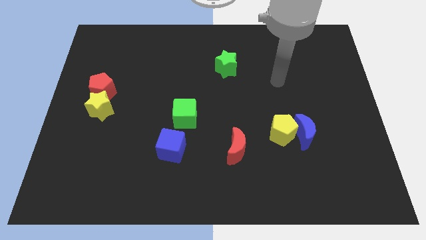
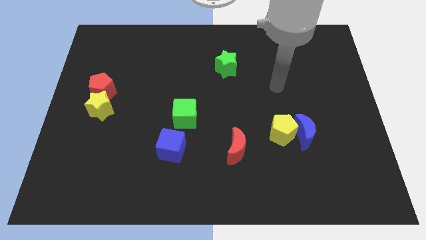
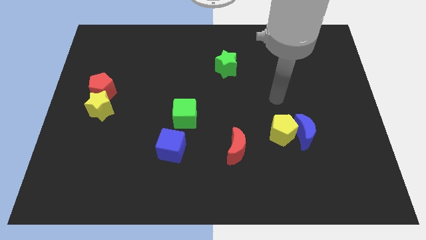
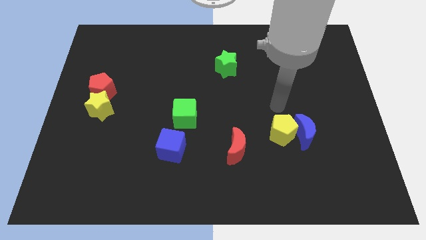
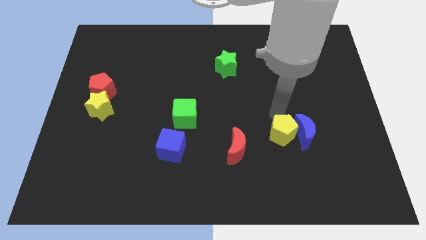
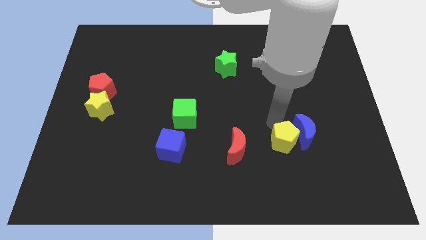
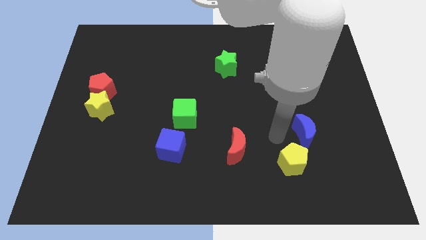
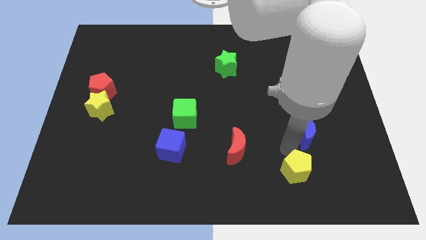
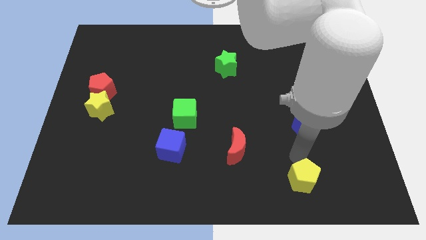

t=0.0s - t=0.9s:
move the blue moon away from the yellow pentagon

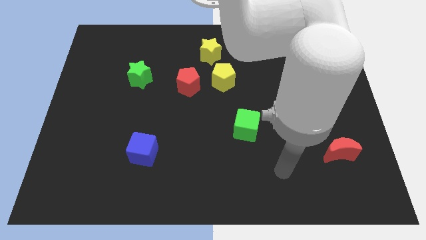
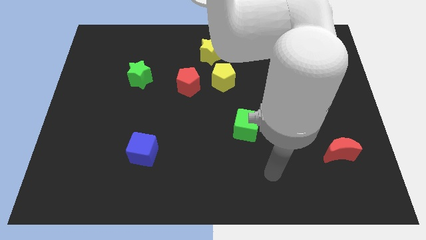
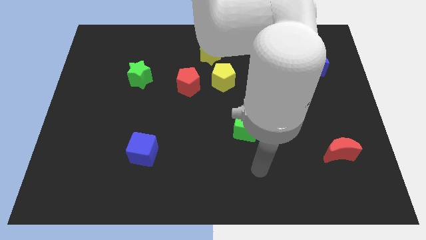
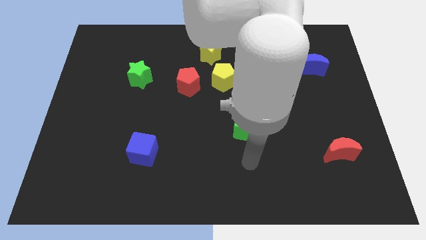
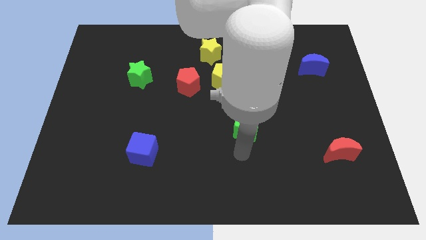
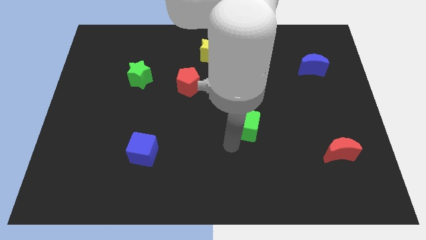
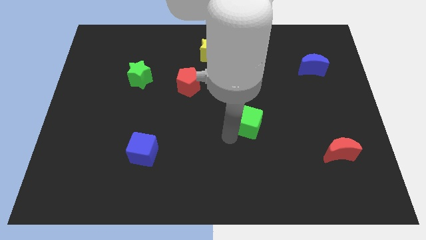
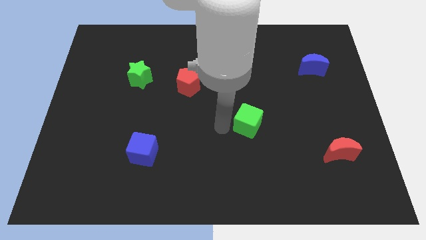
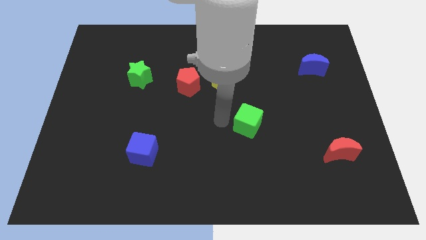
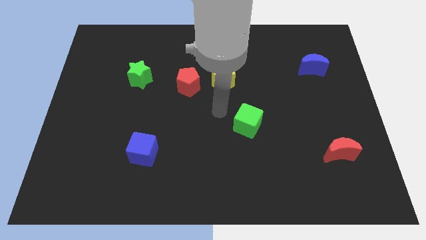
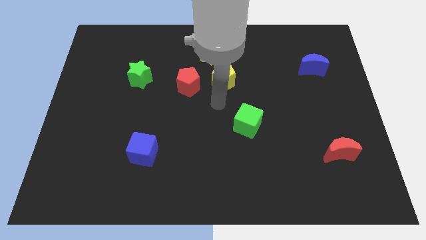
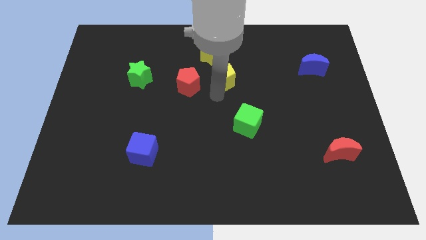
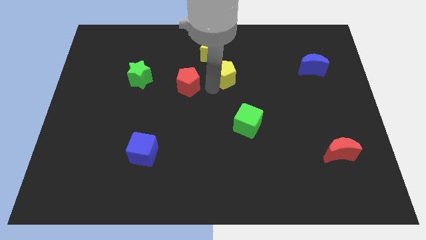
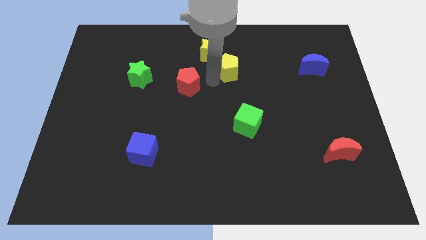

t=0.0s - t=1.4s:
separate the red pentagon from the yellow pentagon

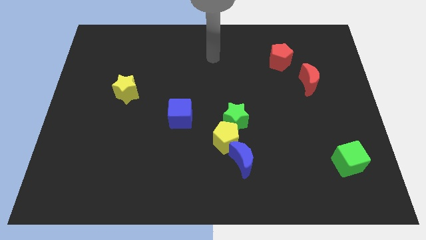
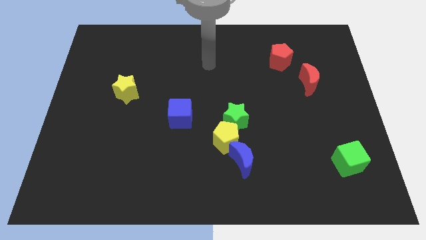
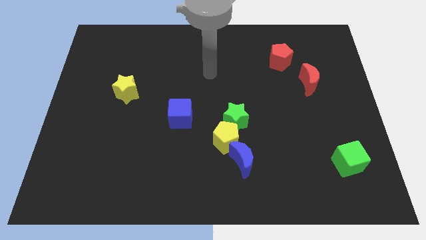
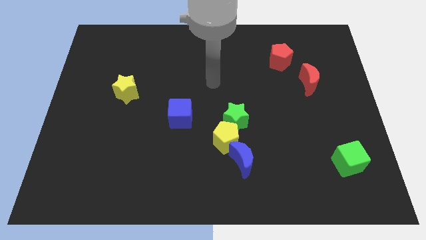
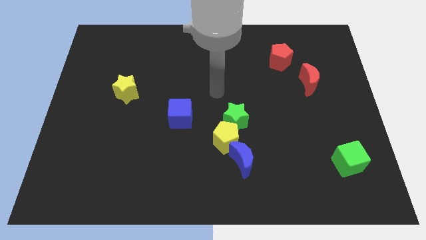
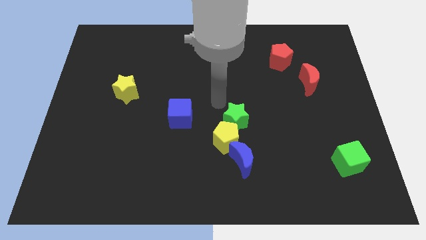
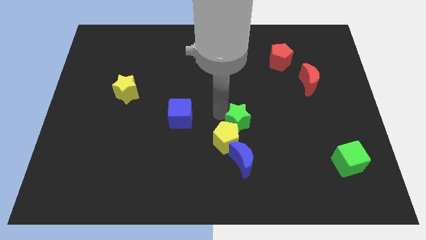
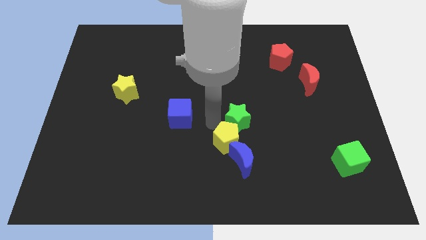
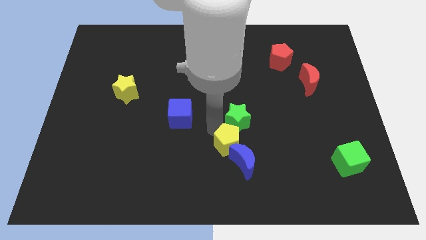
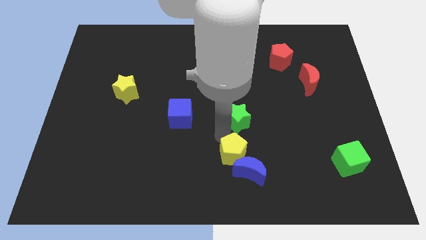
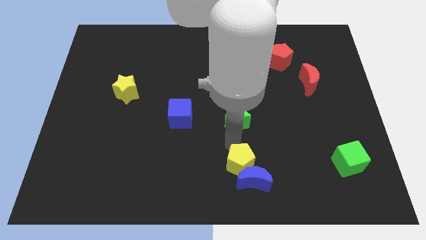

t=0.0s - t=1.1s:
move the green star away from the yellow pentagon

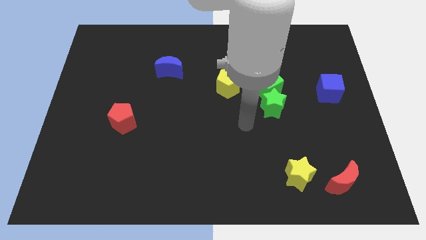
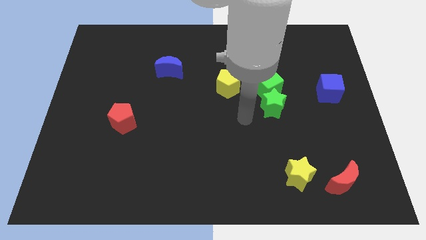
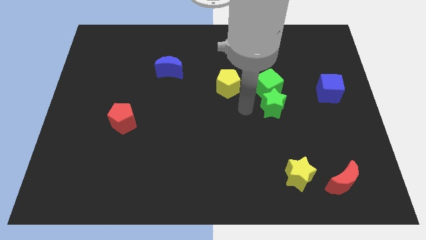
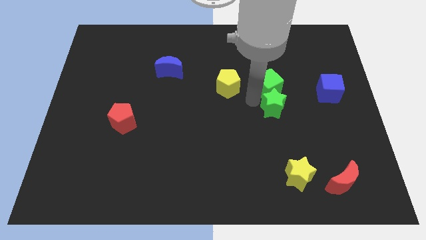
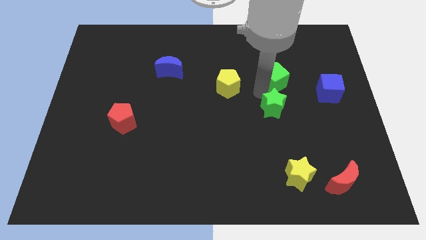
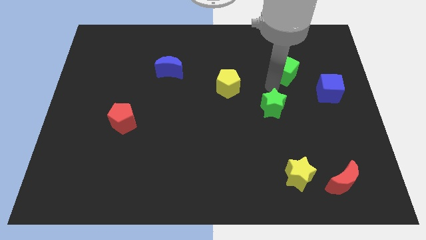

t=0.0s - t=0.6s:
pull the green star apart from the green cube

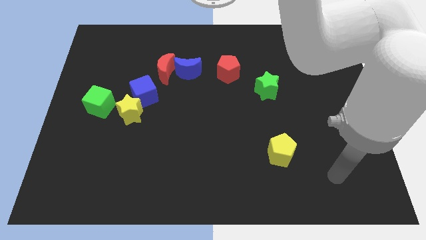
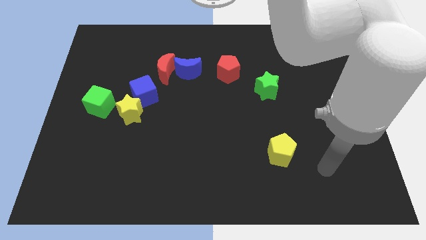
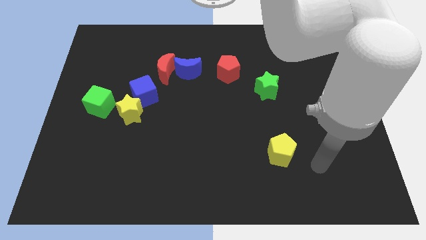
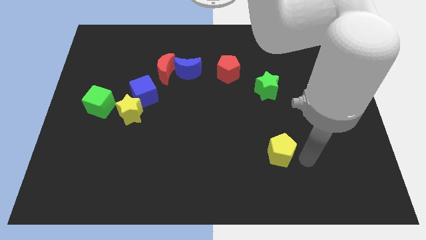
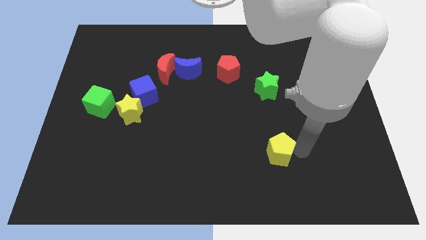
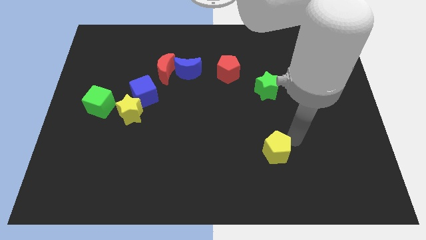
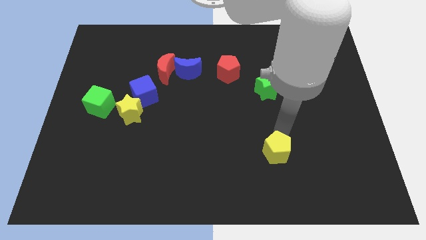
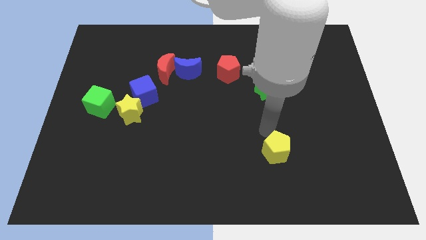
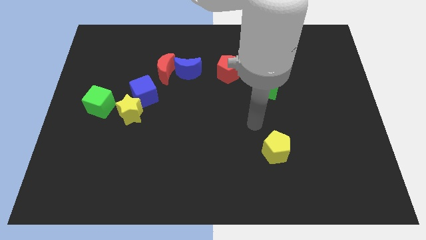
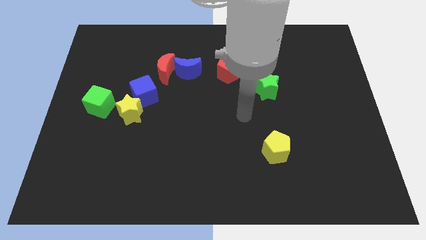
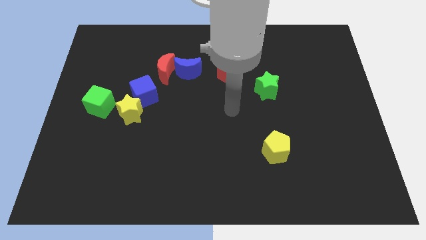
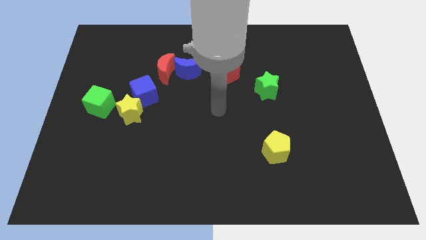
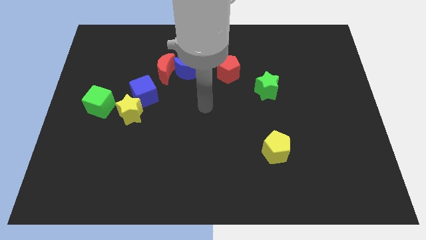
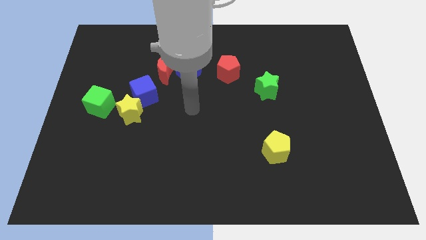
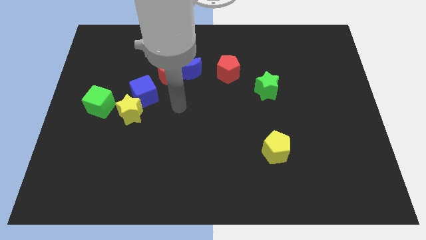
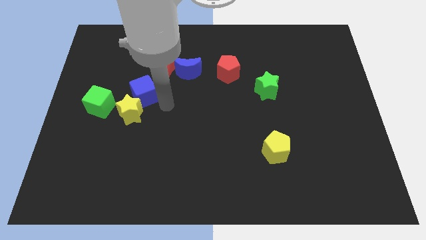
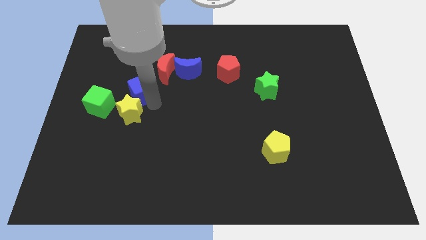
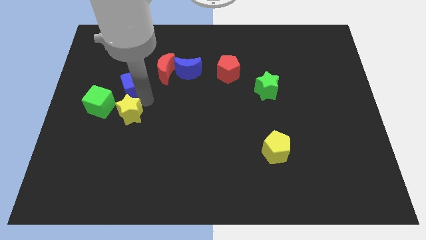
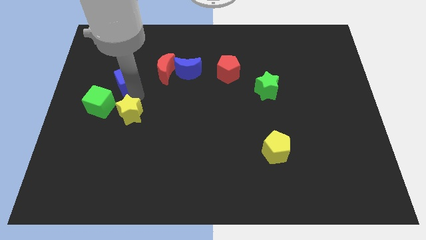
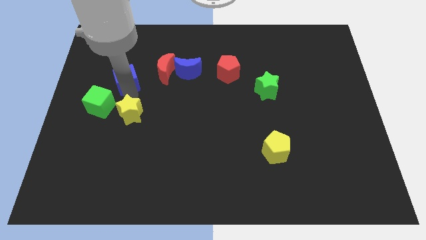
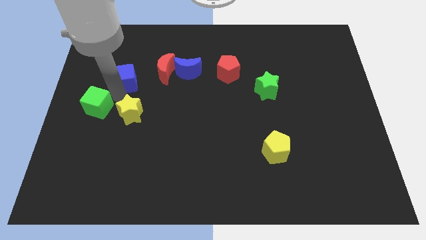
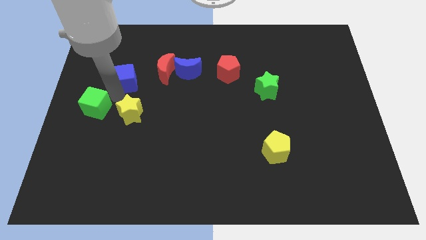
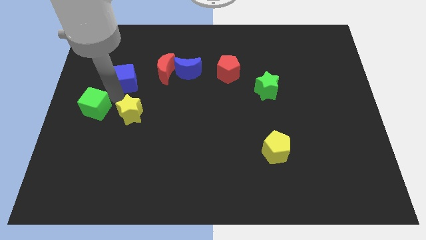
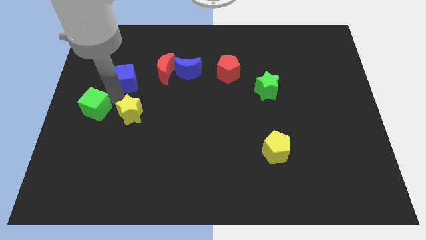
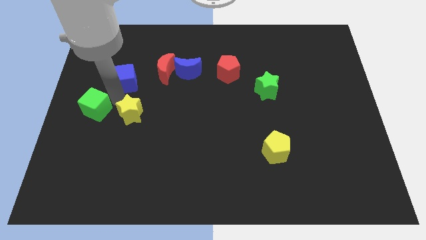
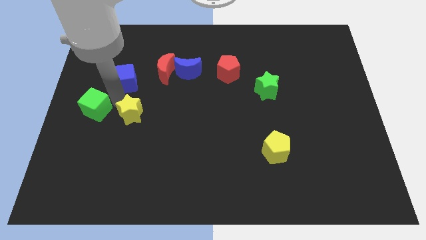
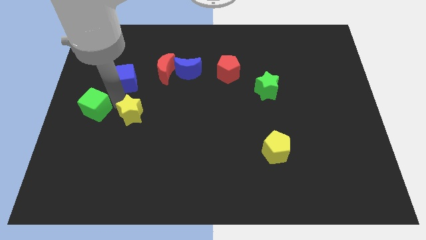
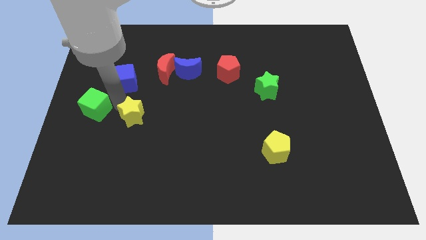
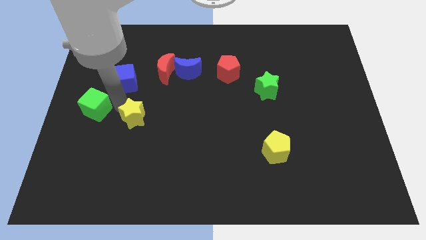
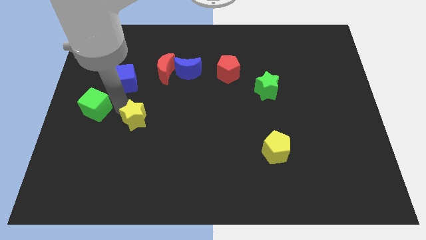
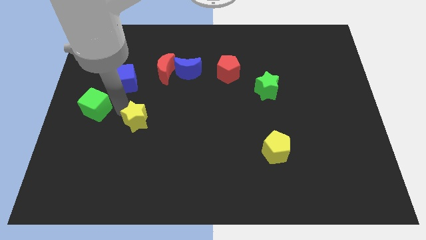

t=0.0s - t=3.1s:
pull the yellow star apart from the blue cube and green cube

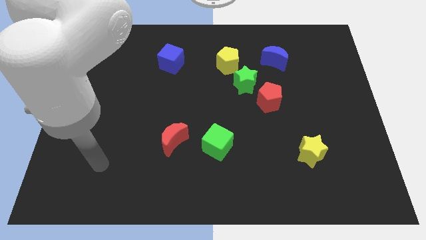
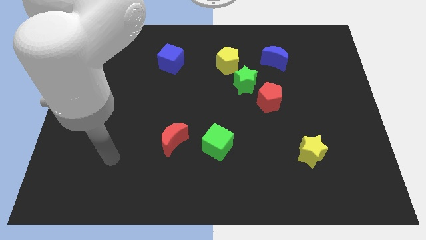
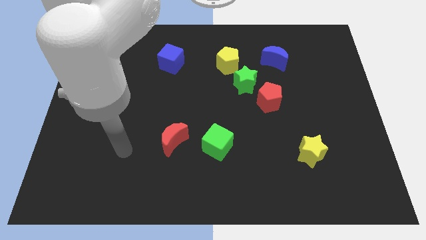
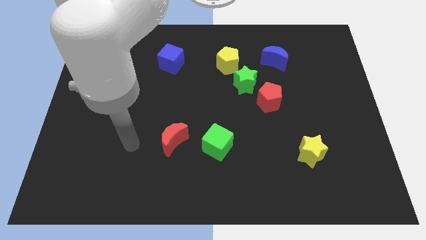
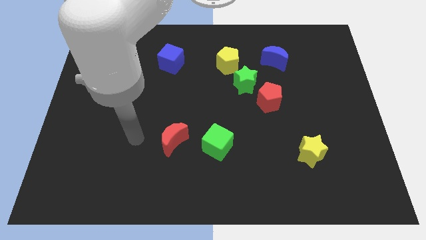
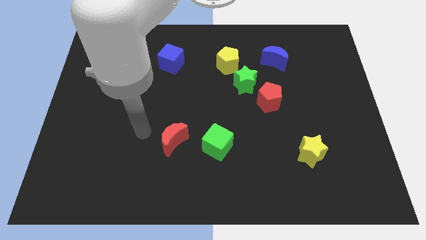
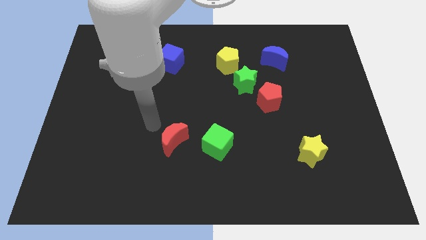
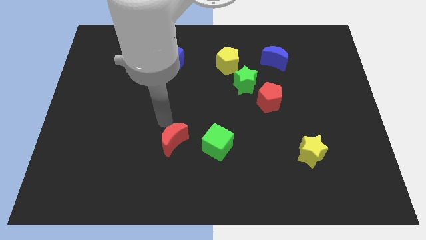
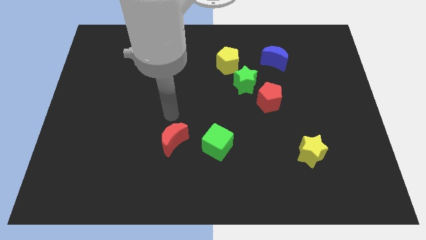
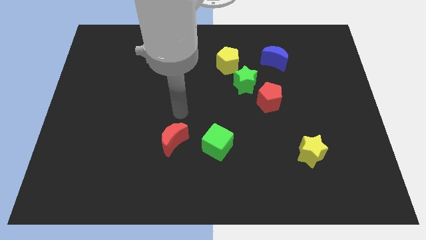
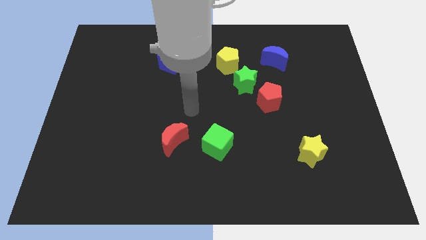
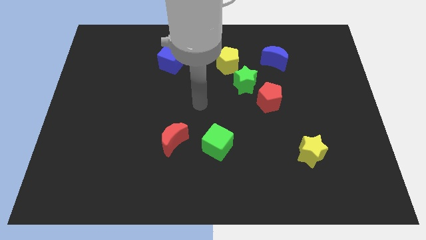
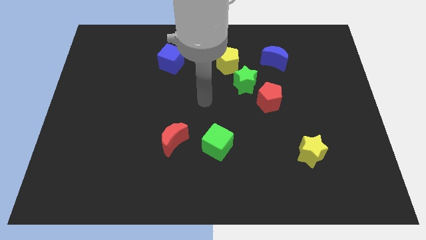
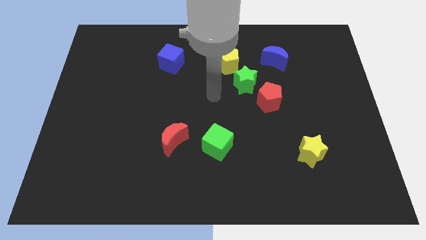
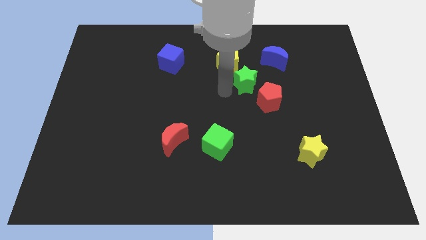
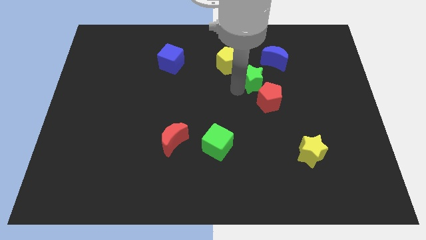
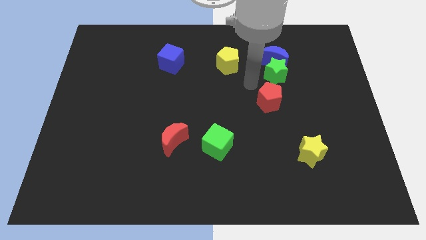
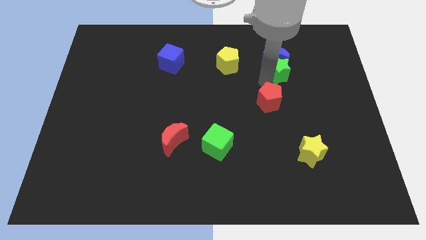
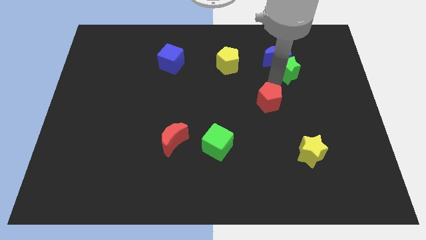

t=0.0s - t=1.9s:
pull the red pentagon apart from the green star

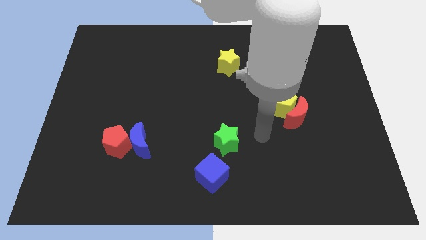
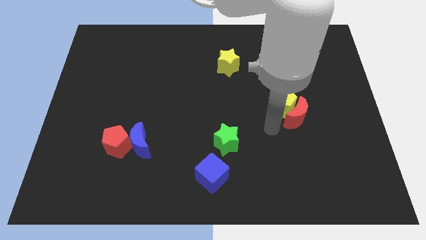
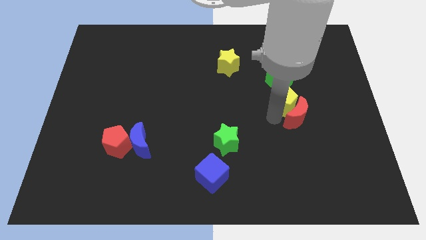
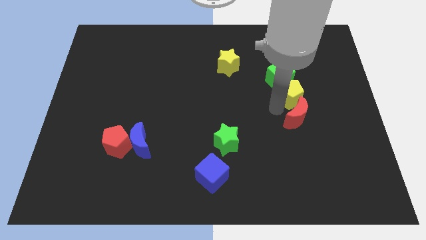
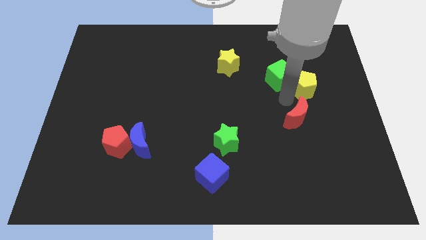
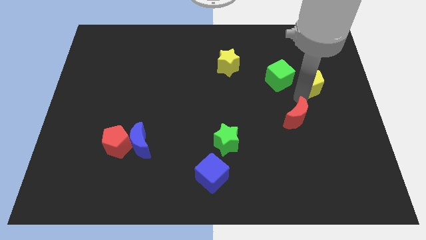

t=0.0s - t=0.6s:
move the red moon away from the yellow pentagon
